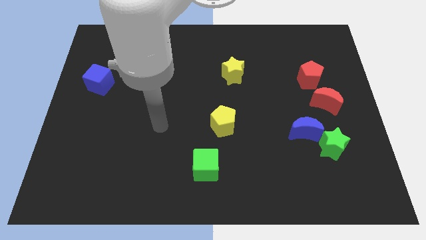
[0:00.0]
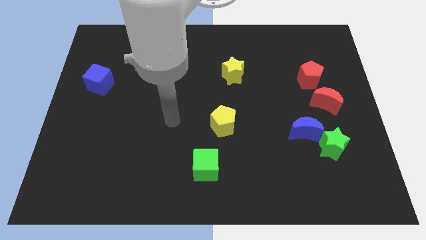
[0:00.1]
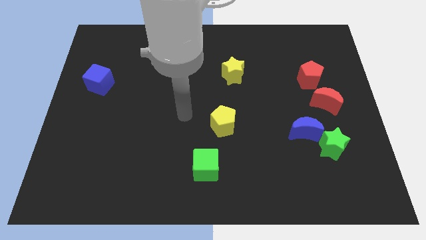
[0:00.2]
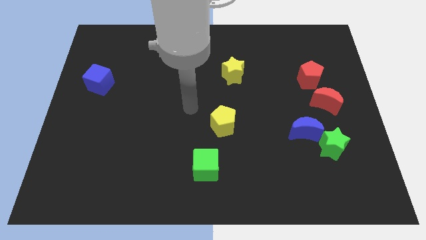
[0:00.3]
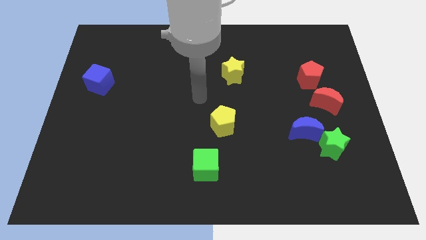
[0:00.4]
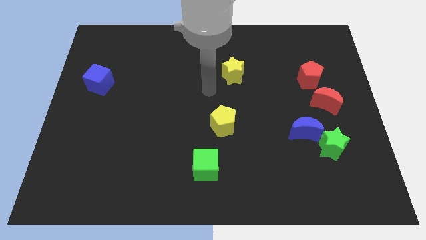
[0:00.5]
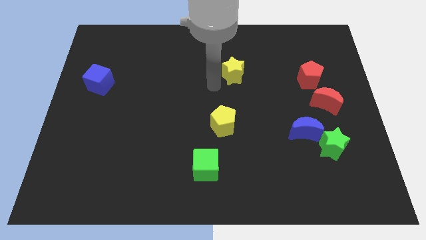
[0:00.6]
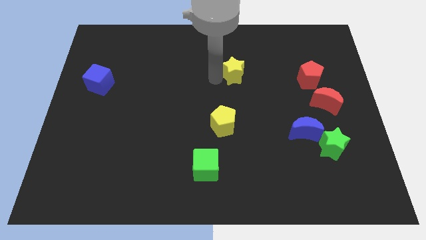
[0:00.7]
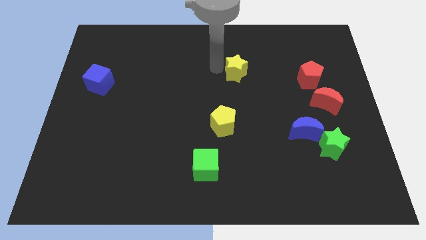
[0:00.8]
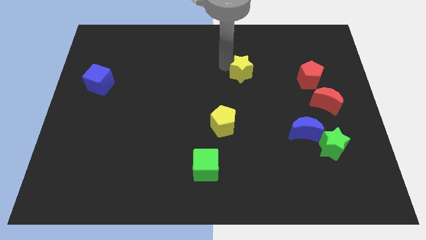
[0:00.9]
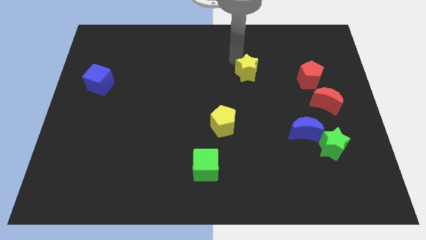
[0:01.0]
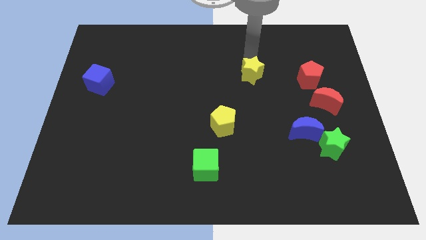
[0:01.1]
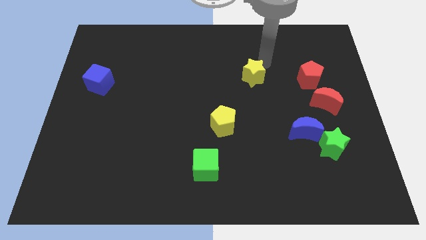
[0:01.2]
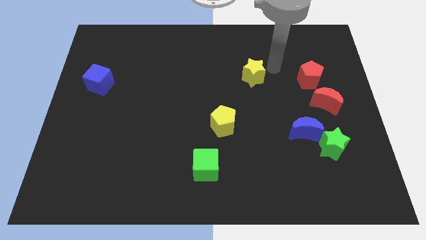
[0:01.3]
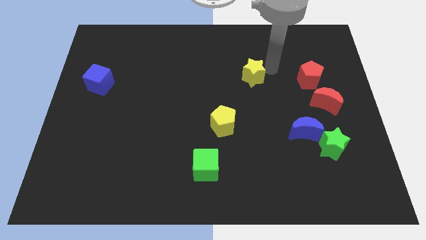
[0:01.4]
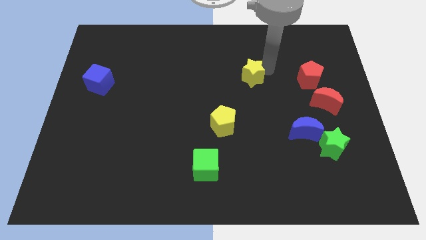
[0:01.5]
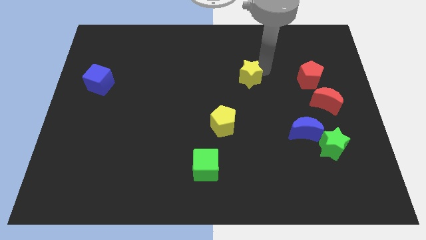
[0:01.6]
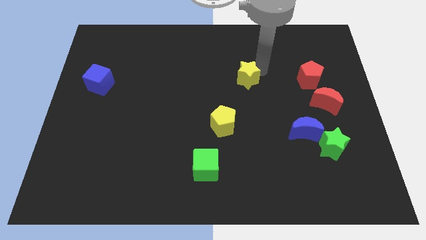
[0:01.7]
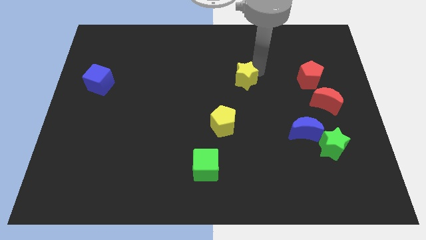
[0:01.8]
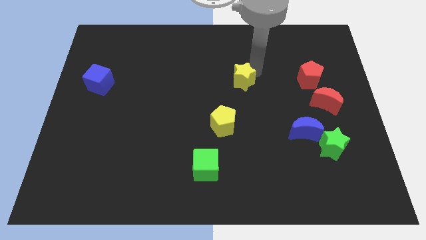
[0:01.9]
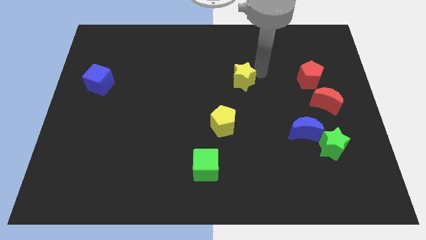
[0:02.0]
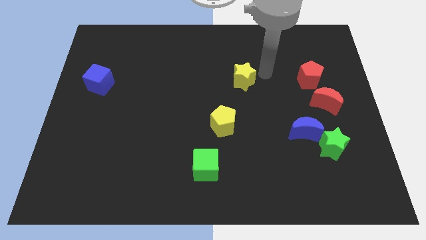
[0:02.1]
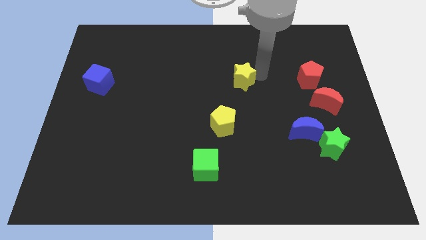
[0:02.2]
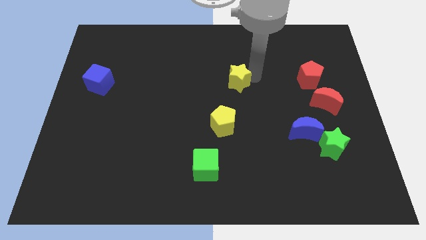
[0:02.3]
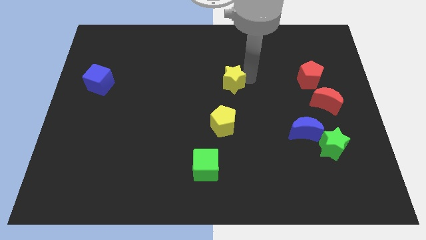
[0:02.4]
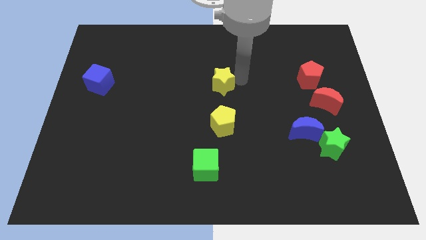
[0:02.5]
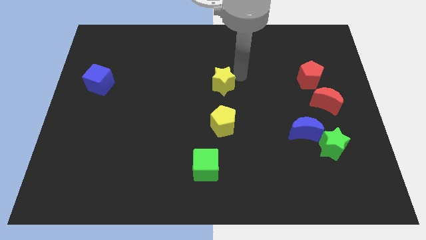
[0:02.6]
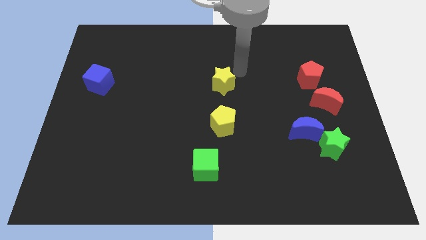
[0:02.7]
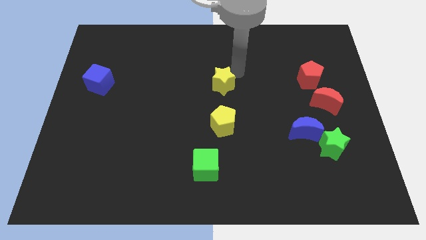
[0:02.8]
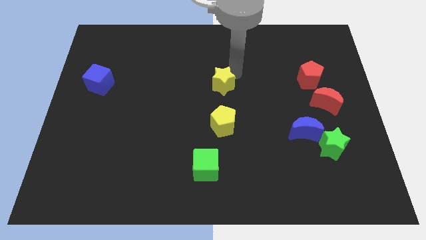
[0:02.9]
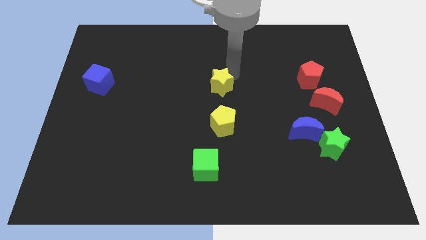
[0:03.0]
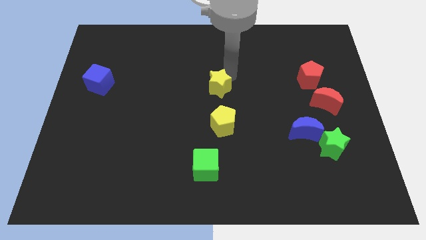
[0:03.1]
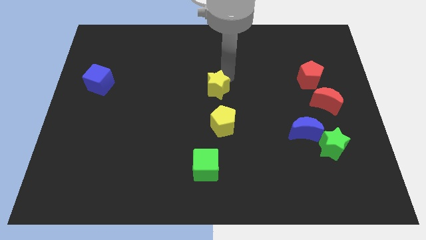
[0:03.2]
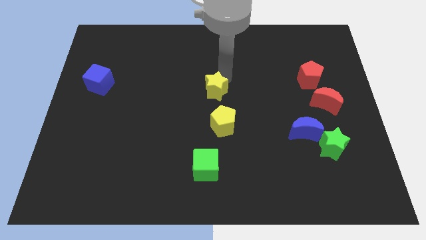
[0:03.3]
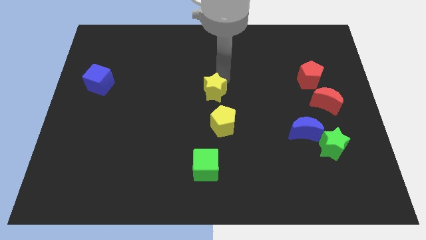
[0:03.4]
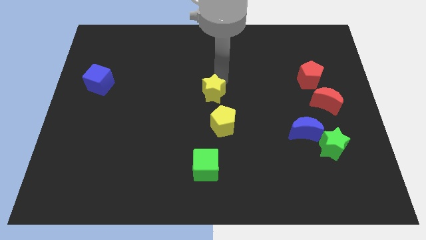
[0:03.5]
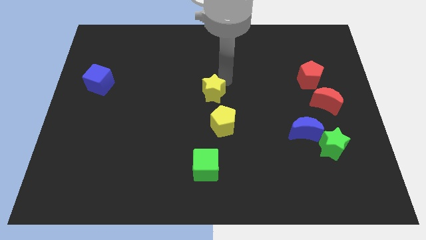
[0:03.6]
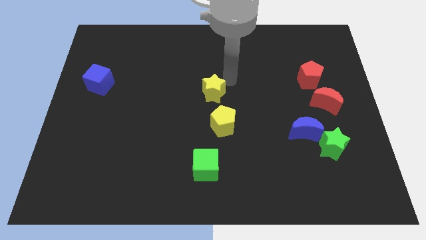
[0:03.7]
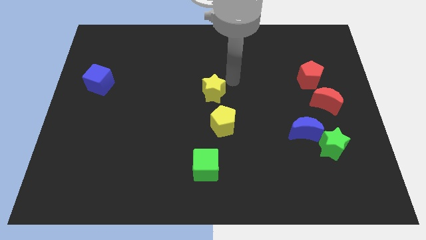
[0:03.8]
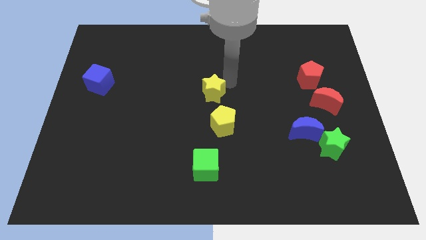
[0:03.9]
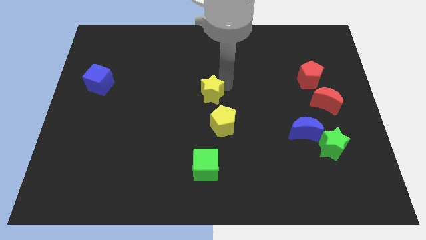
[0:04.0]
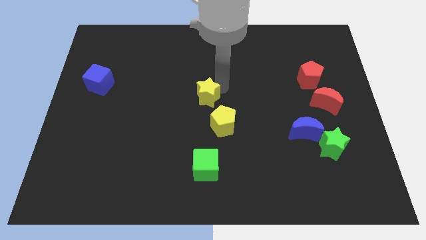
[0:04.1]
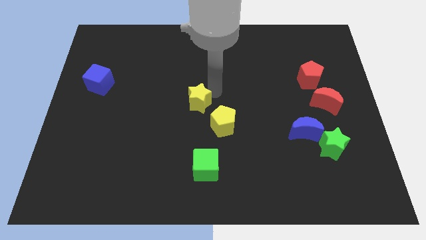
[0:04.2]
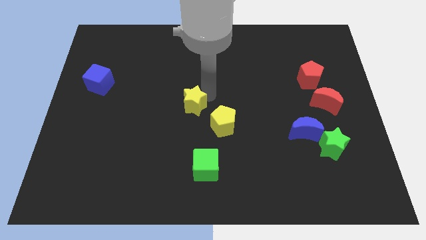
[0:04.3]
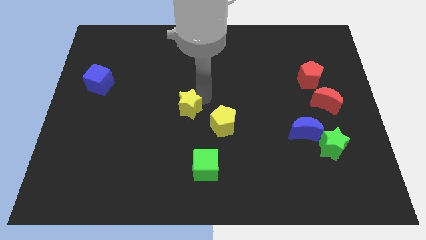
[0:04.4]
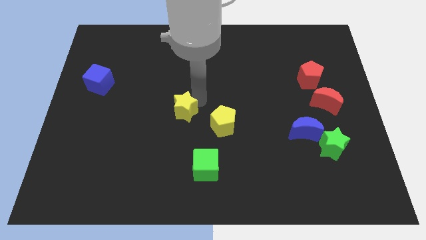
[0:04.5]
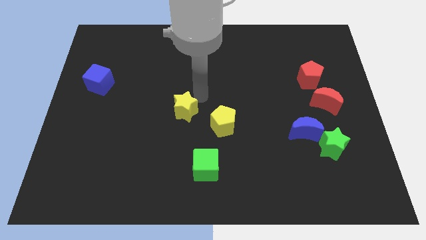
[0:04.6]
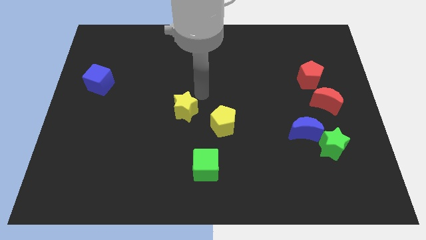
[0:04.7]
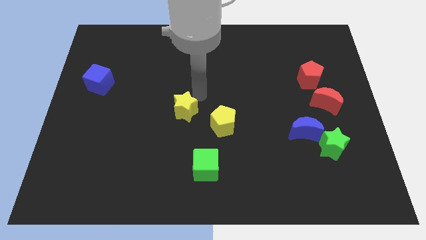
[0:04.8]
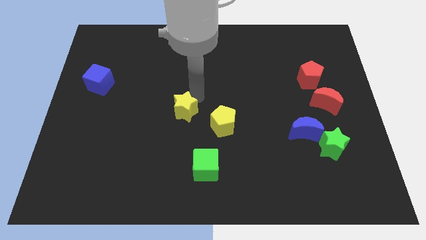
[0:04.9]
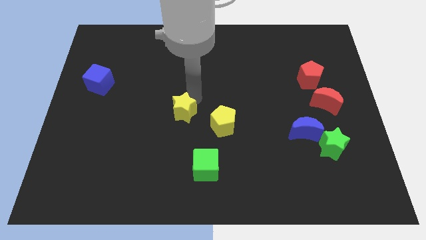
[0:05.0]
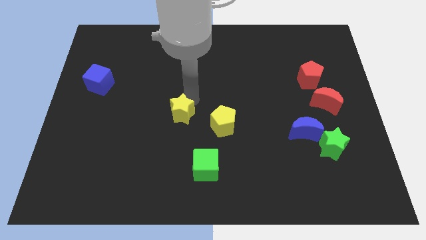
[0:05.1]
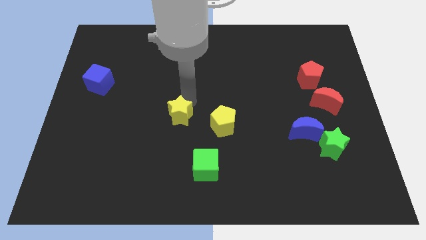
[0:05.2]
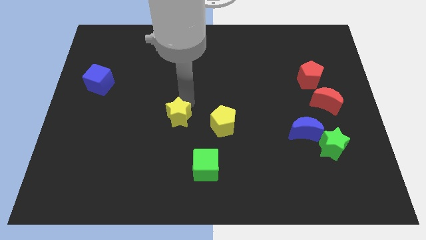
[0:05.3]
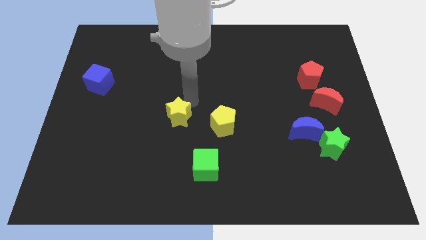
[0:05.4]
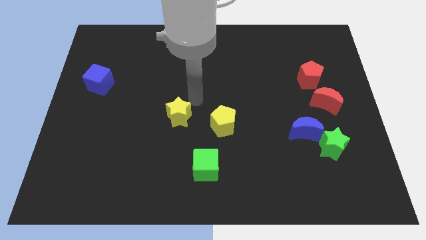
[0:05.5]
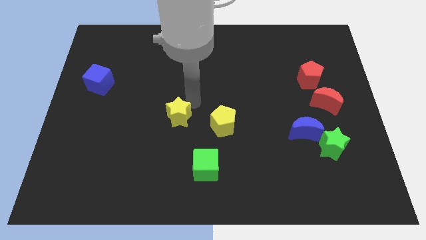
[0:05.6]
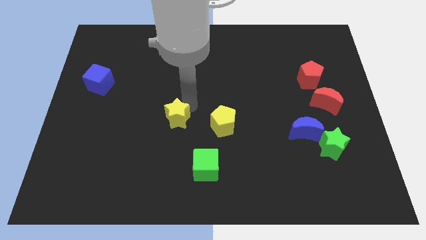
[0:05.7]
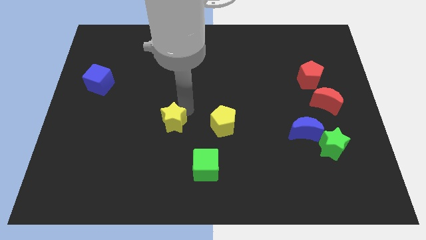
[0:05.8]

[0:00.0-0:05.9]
move the yellow star down and left diagonally

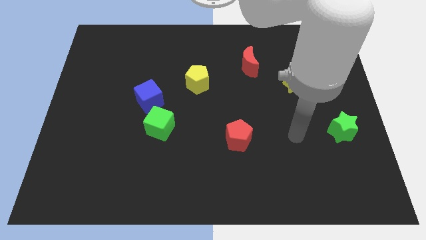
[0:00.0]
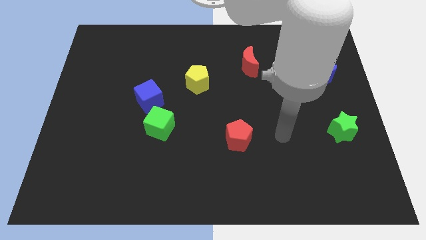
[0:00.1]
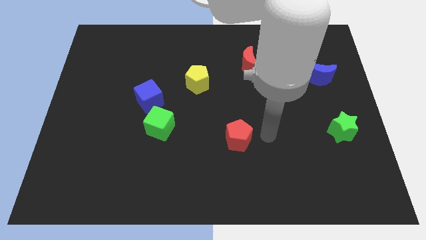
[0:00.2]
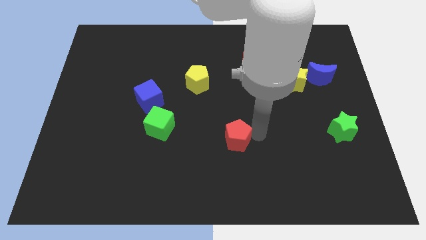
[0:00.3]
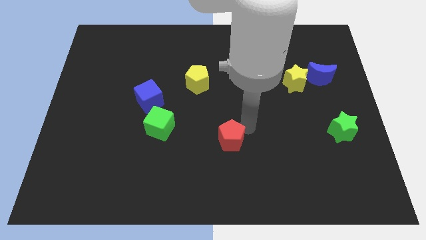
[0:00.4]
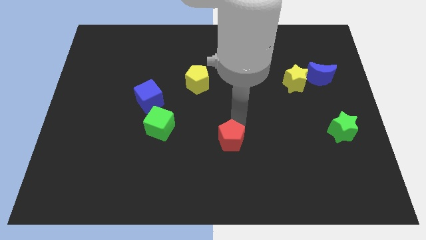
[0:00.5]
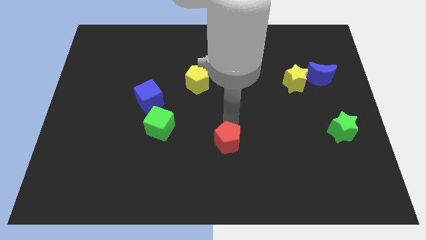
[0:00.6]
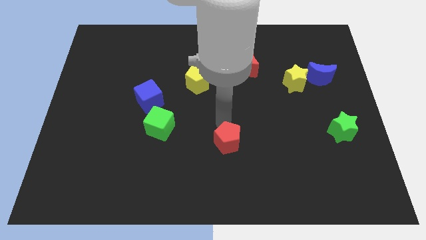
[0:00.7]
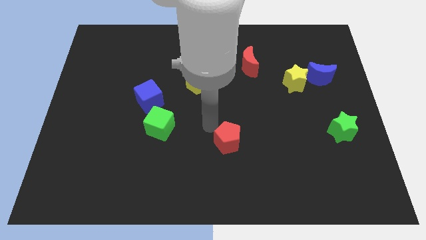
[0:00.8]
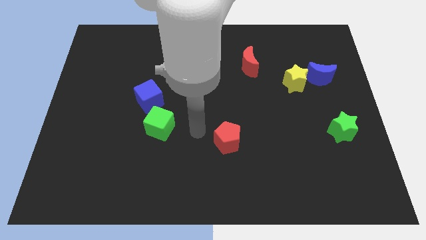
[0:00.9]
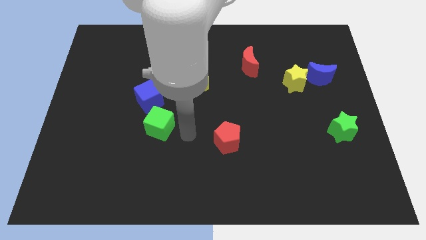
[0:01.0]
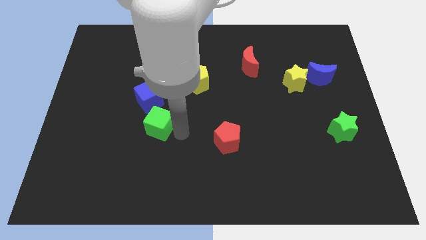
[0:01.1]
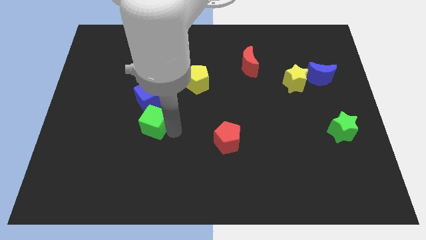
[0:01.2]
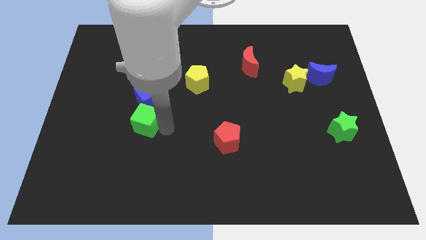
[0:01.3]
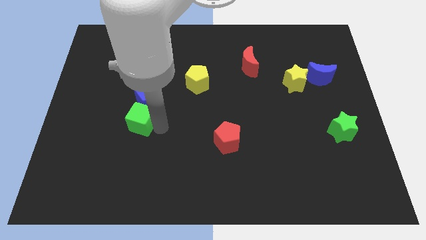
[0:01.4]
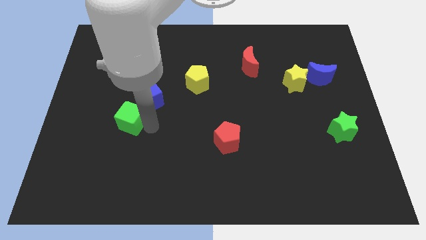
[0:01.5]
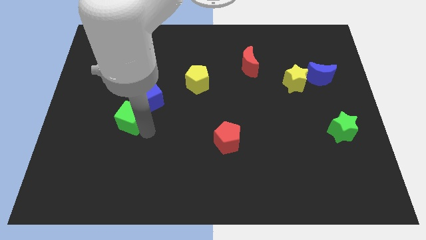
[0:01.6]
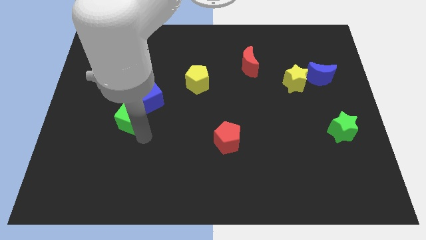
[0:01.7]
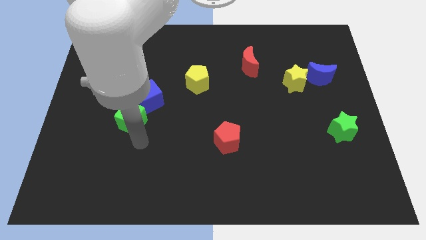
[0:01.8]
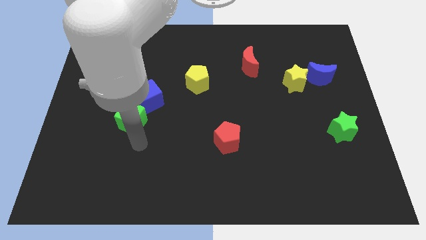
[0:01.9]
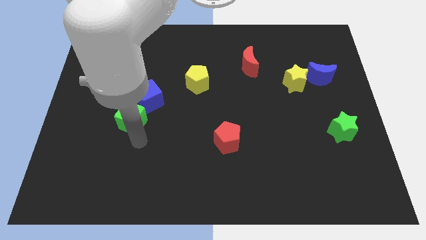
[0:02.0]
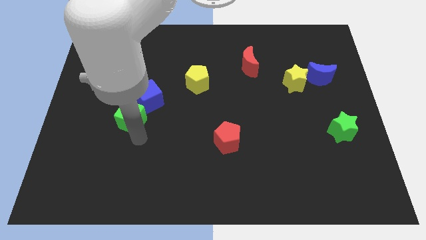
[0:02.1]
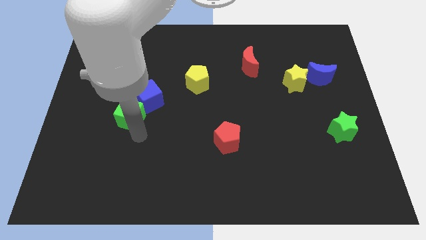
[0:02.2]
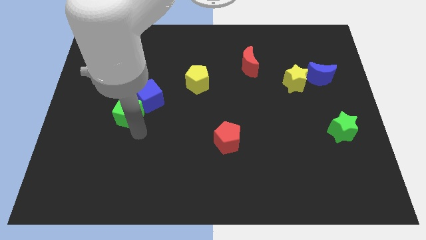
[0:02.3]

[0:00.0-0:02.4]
move the green cube up and then to the left slightly

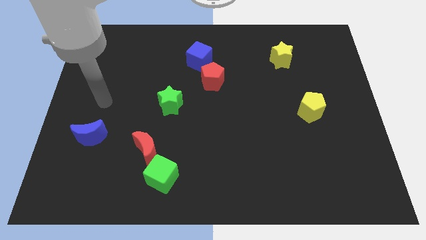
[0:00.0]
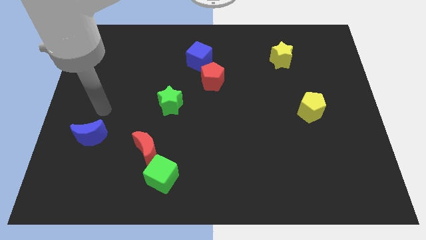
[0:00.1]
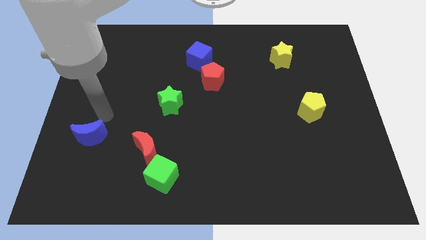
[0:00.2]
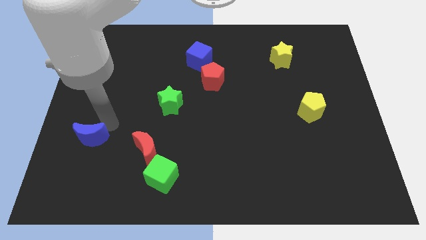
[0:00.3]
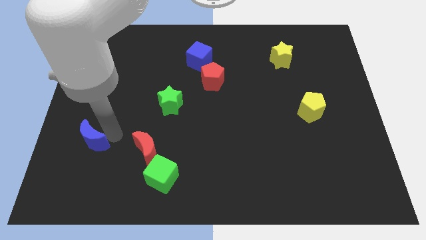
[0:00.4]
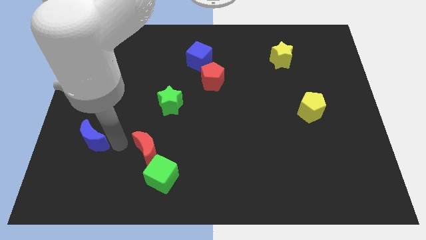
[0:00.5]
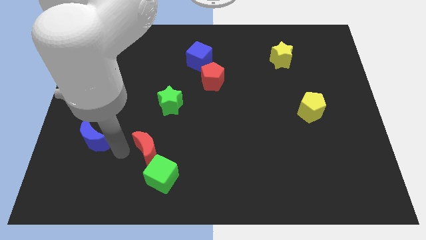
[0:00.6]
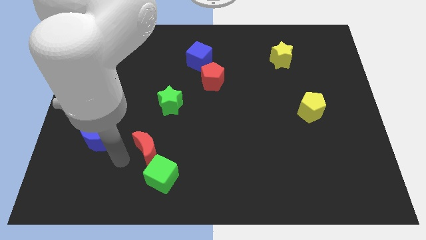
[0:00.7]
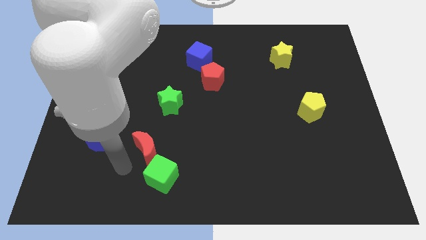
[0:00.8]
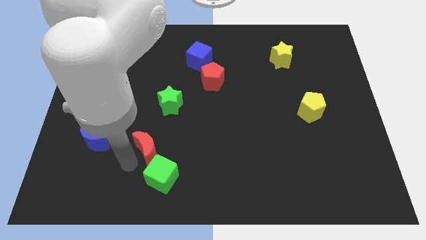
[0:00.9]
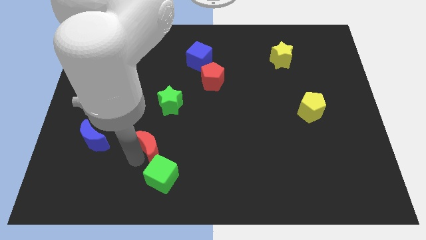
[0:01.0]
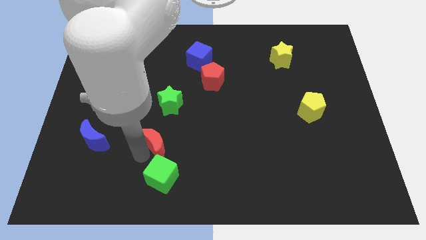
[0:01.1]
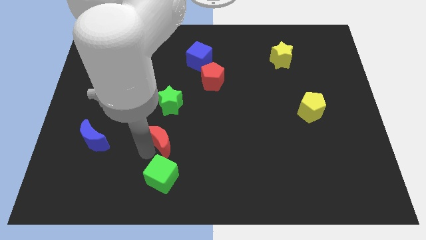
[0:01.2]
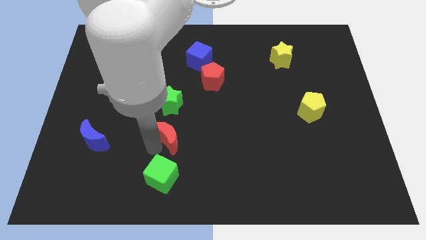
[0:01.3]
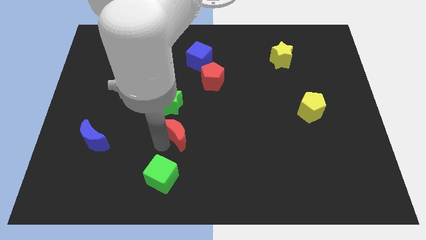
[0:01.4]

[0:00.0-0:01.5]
slightly slide the red moon upwards and to the right
